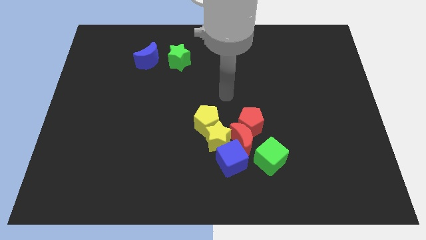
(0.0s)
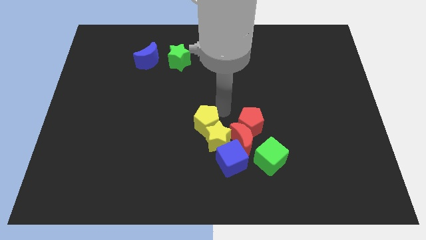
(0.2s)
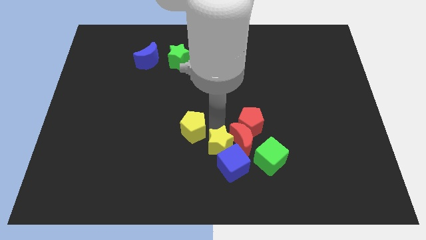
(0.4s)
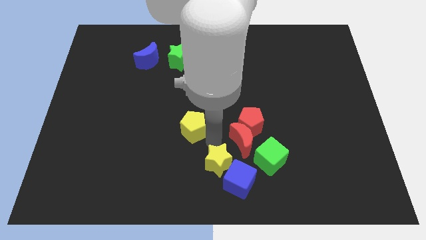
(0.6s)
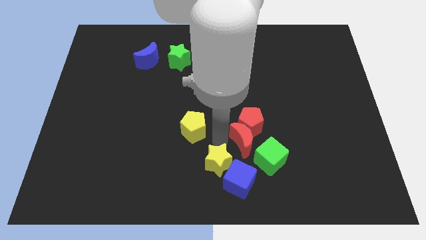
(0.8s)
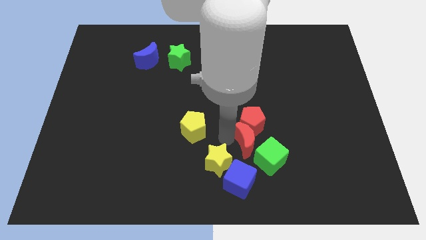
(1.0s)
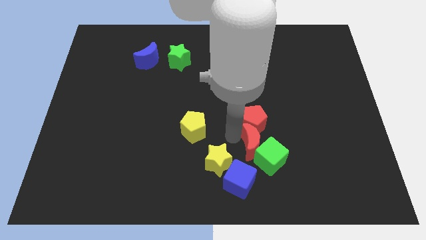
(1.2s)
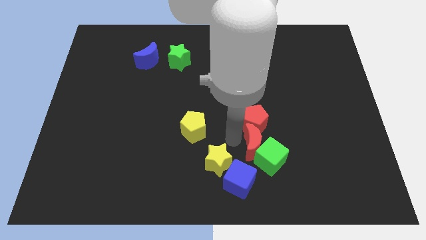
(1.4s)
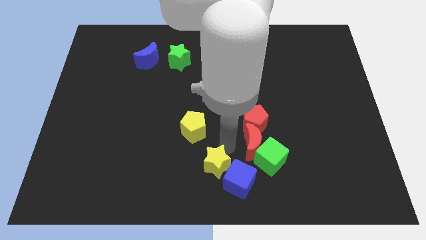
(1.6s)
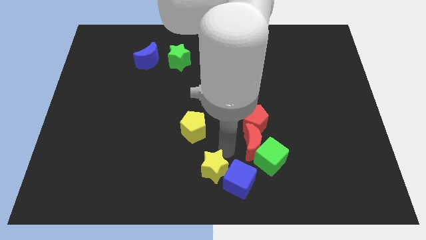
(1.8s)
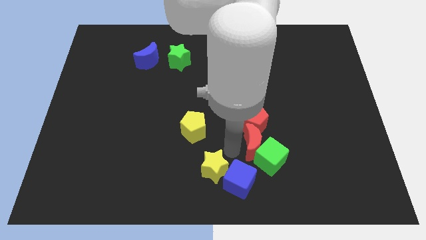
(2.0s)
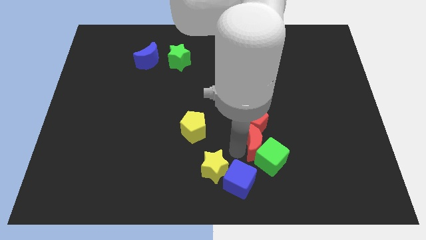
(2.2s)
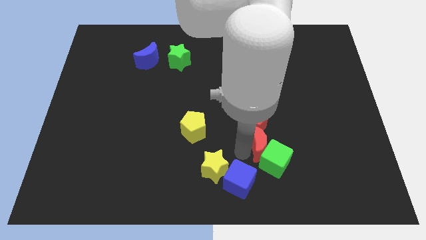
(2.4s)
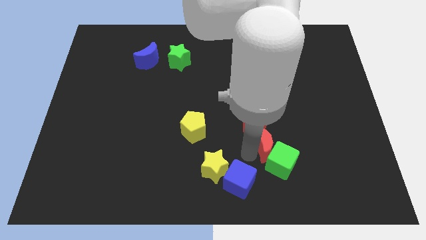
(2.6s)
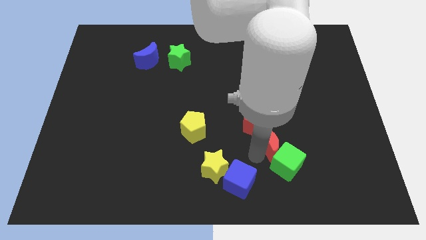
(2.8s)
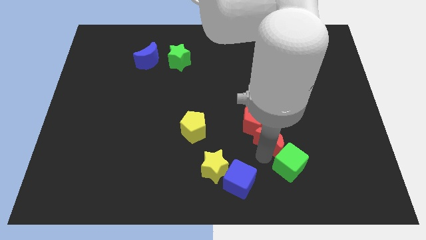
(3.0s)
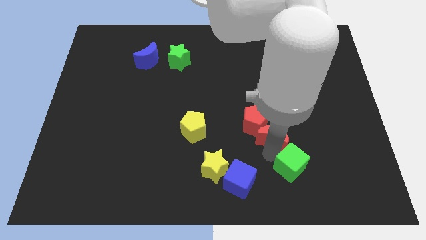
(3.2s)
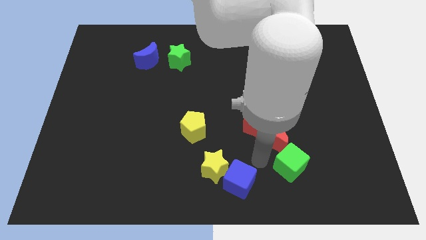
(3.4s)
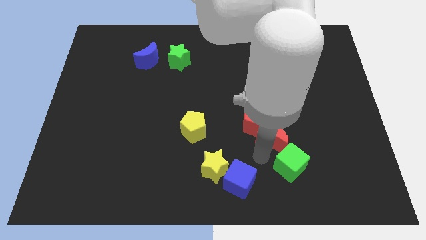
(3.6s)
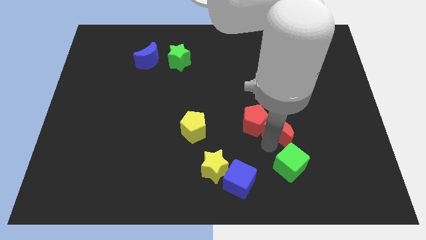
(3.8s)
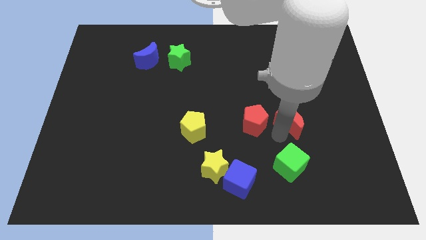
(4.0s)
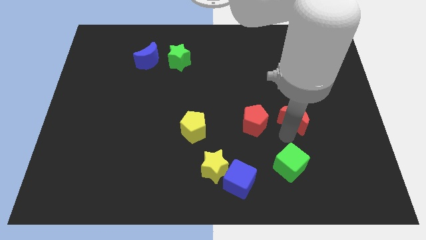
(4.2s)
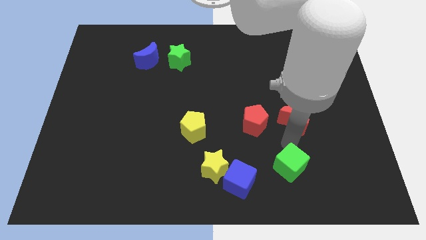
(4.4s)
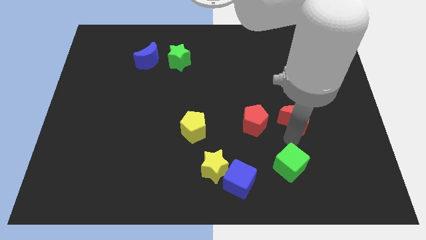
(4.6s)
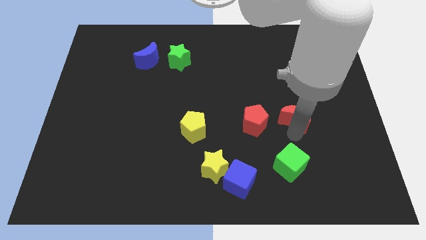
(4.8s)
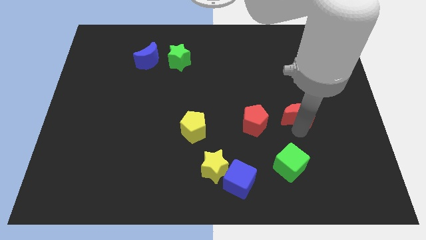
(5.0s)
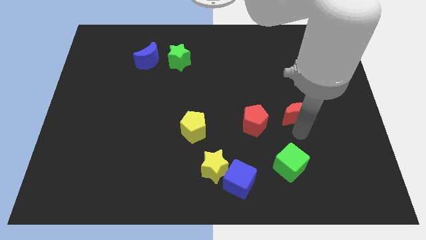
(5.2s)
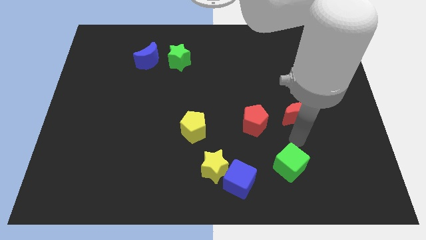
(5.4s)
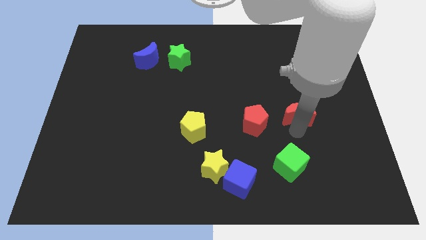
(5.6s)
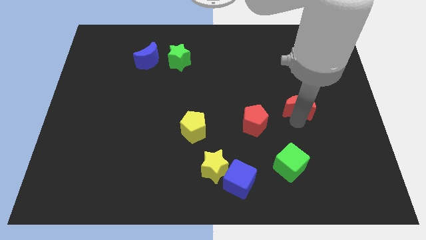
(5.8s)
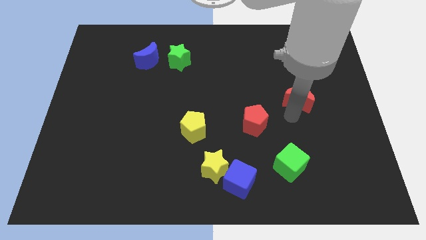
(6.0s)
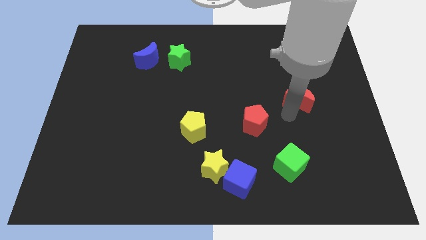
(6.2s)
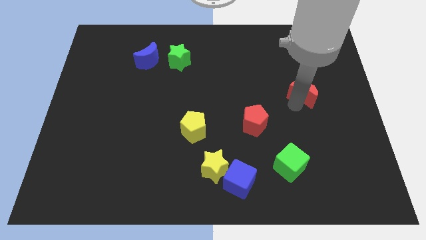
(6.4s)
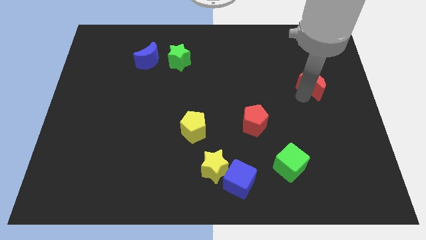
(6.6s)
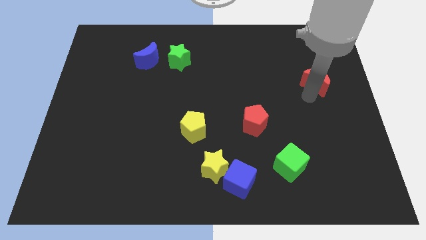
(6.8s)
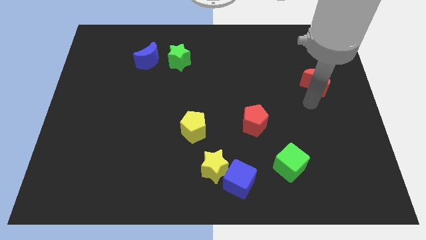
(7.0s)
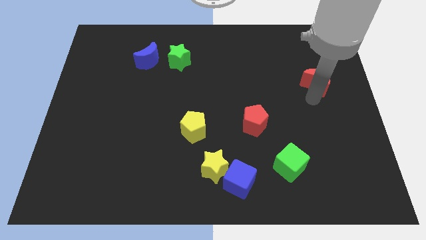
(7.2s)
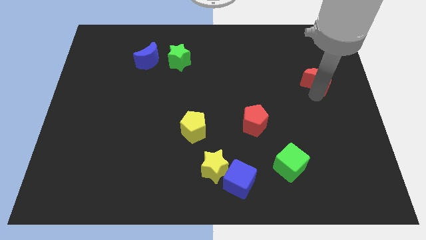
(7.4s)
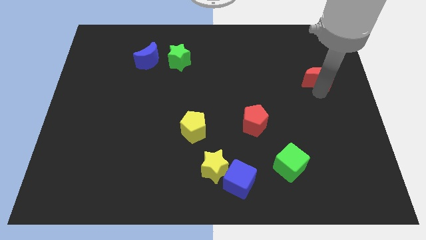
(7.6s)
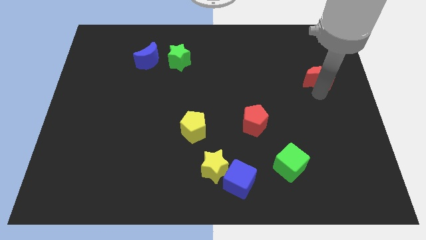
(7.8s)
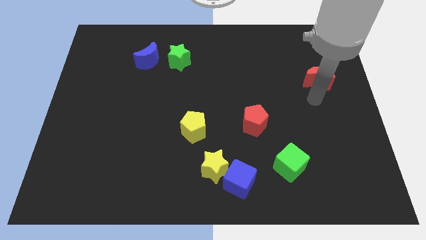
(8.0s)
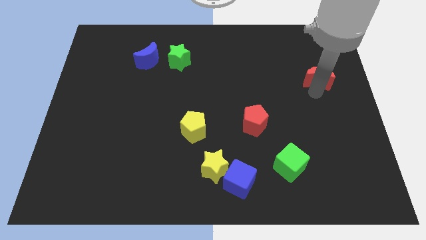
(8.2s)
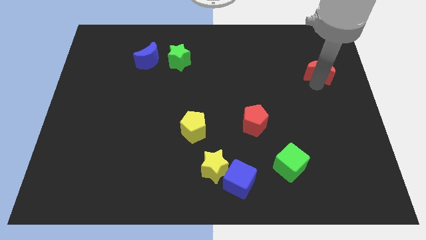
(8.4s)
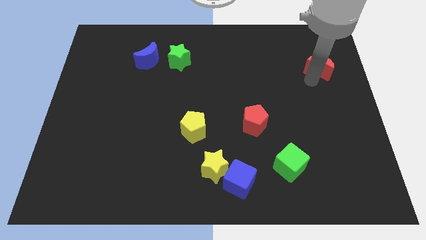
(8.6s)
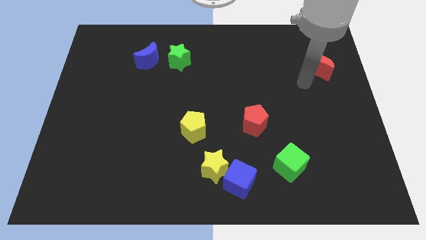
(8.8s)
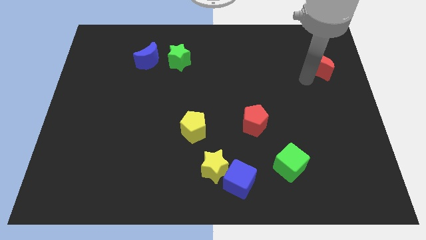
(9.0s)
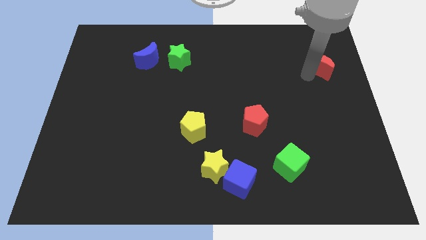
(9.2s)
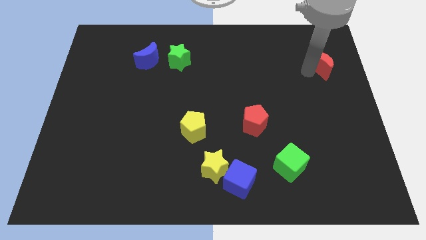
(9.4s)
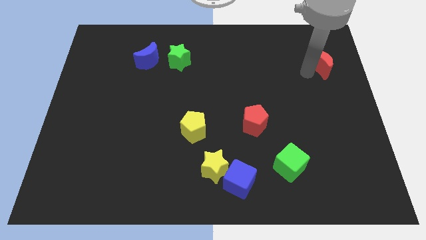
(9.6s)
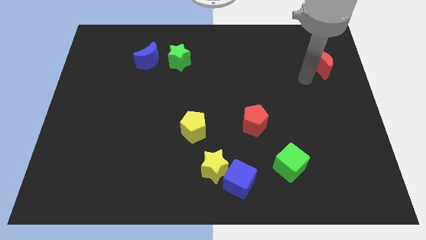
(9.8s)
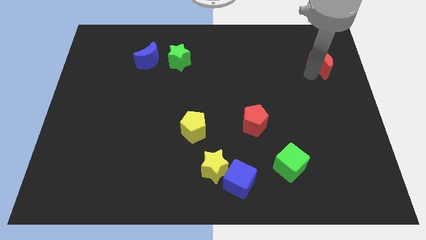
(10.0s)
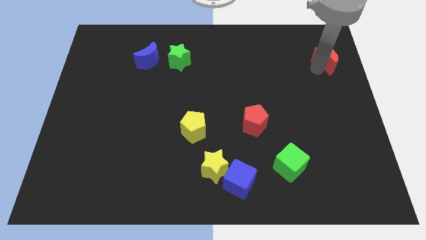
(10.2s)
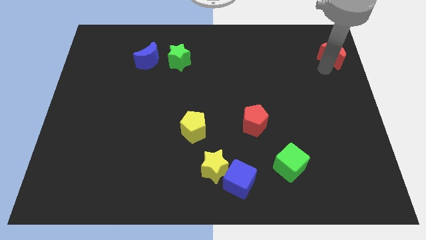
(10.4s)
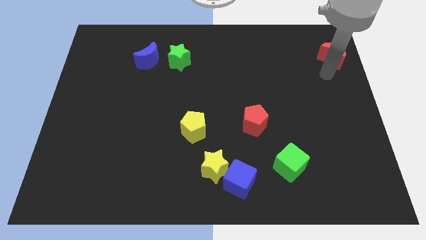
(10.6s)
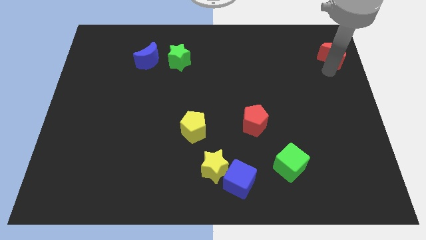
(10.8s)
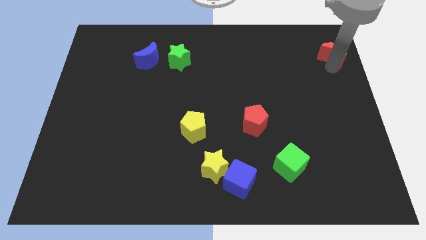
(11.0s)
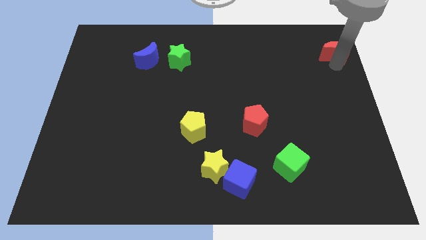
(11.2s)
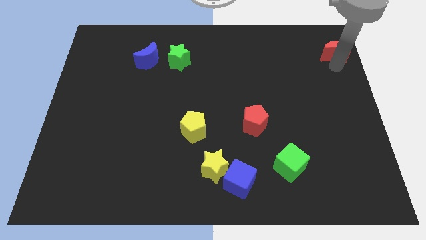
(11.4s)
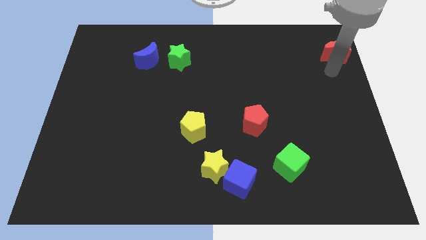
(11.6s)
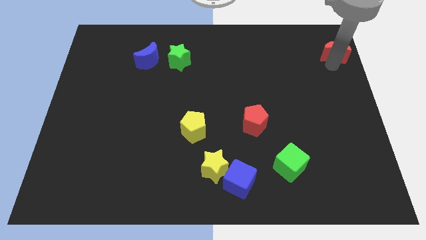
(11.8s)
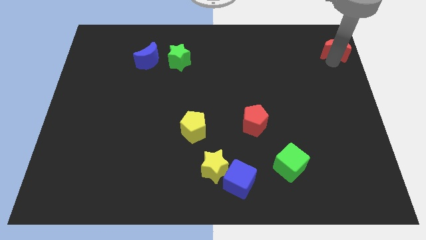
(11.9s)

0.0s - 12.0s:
push the red moon to the top right corner

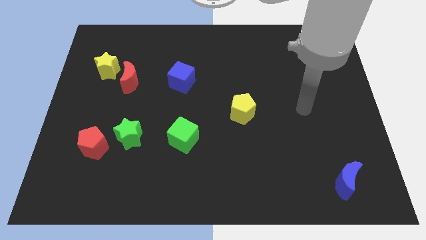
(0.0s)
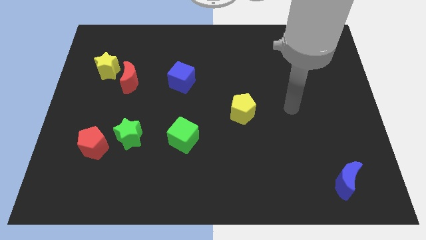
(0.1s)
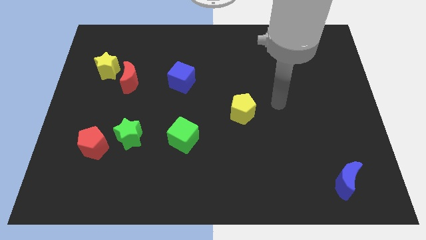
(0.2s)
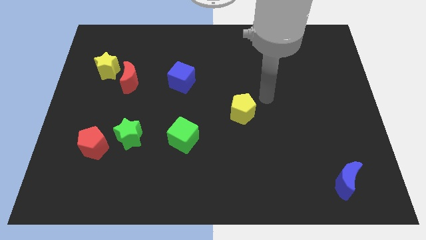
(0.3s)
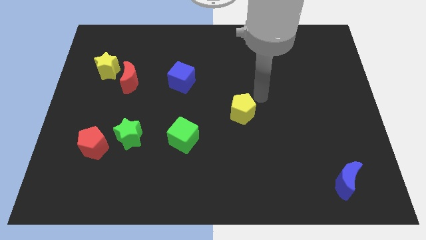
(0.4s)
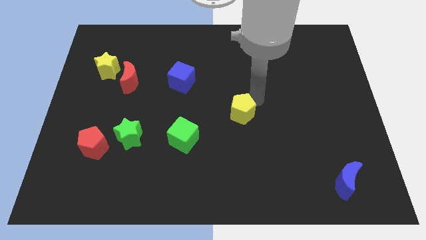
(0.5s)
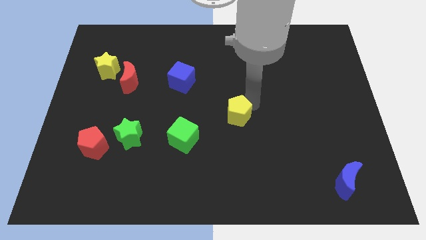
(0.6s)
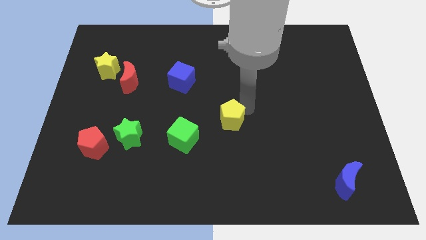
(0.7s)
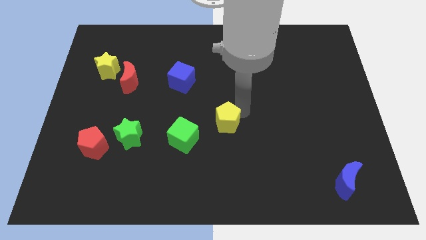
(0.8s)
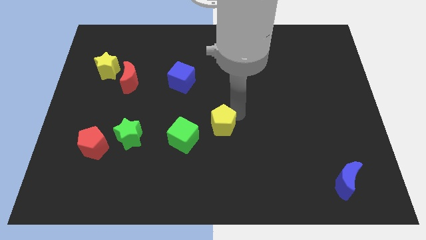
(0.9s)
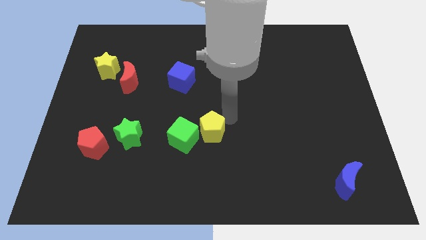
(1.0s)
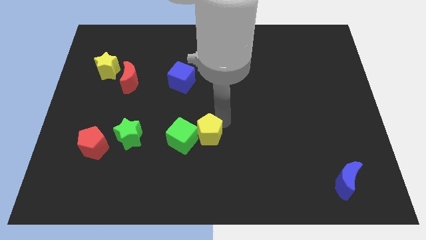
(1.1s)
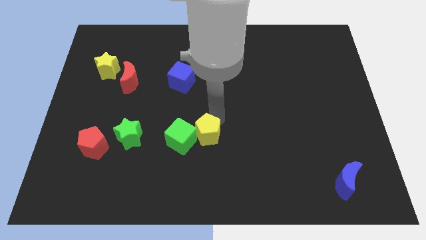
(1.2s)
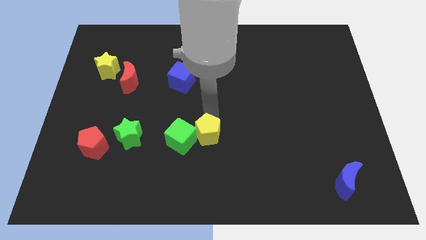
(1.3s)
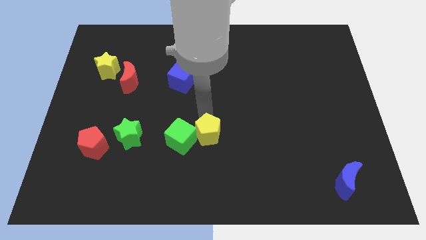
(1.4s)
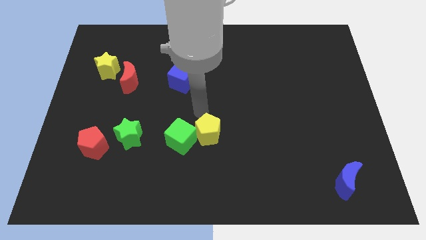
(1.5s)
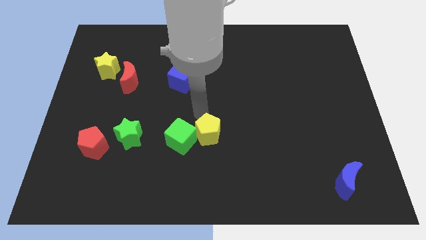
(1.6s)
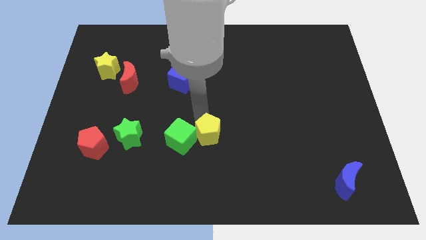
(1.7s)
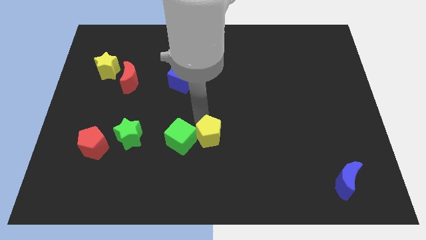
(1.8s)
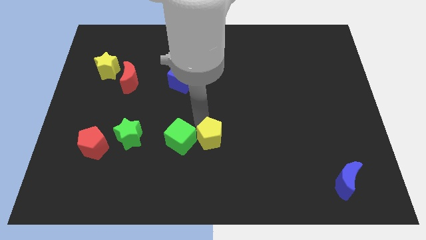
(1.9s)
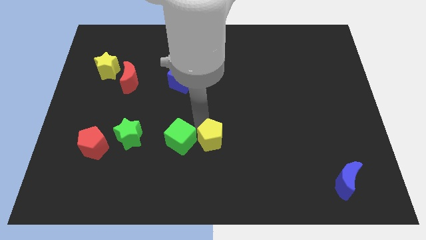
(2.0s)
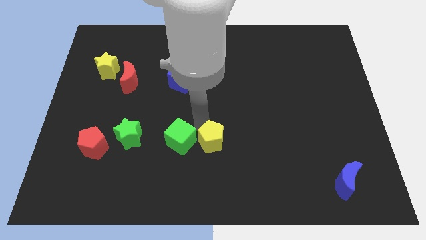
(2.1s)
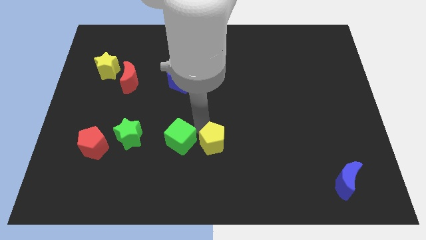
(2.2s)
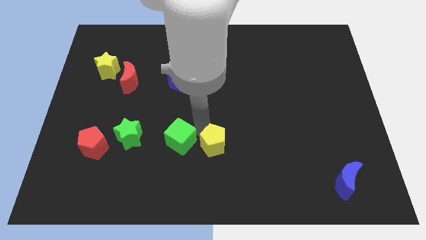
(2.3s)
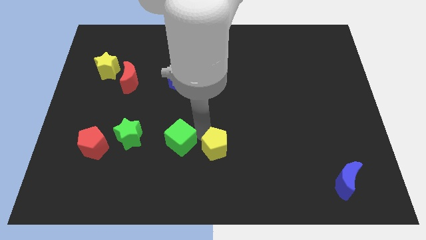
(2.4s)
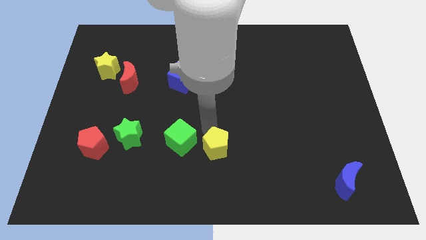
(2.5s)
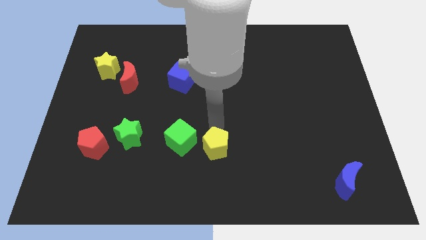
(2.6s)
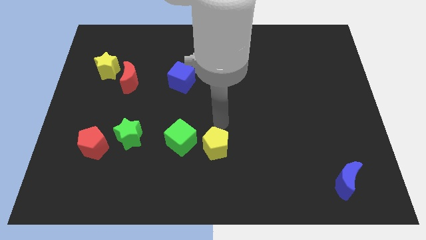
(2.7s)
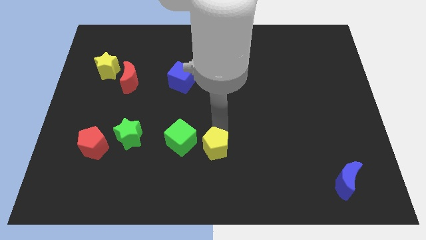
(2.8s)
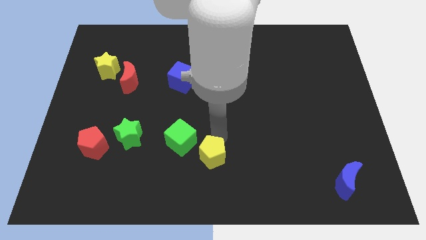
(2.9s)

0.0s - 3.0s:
put the yellow pentagon to the bottom
